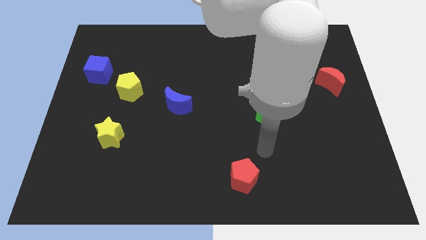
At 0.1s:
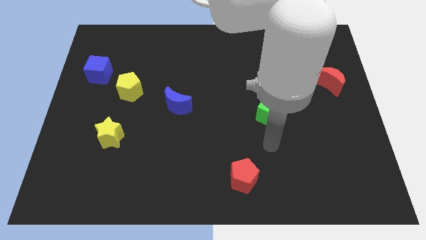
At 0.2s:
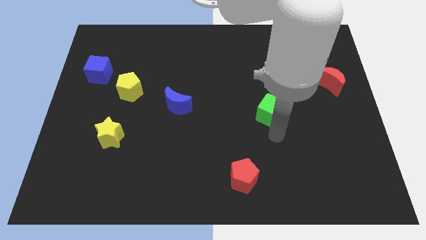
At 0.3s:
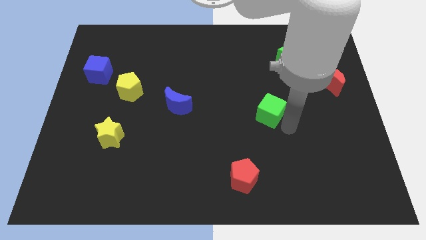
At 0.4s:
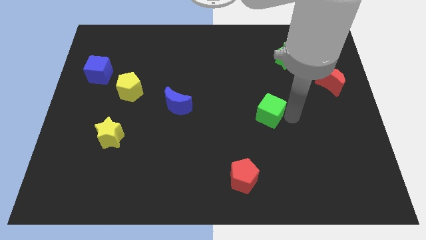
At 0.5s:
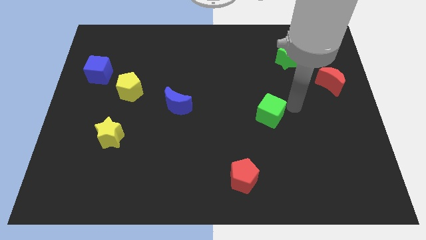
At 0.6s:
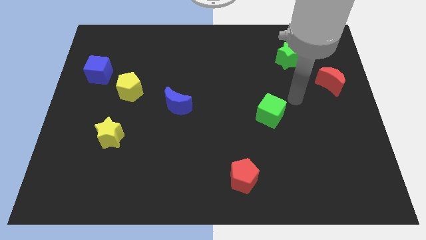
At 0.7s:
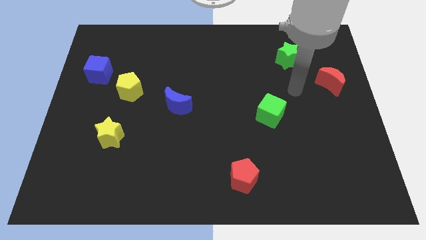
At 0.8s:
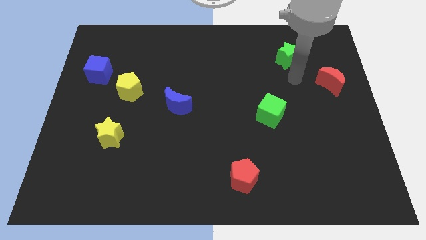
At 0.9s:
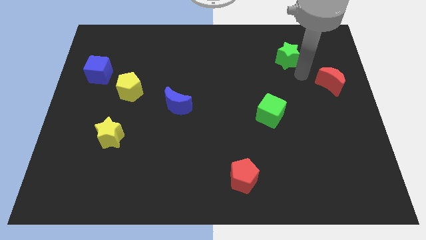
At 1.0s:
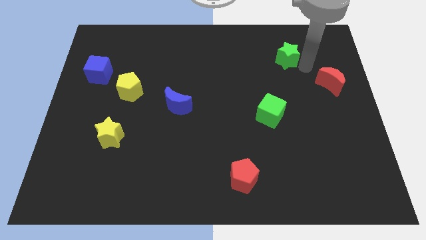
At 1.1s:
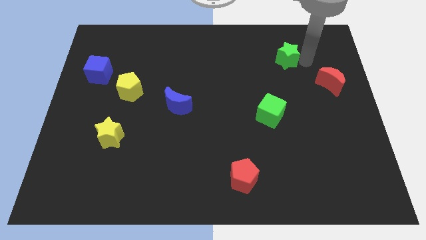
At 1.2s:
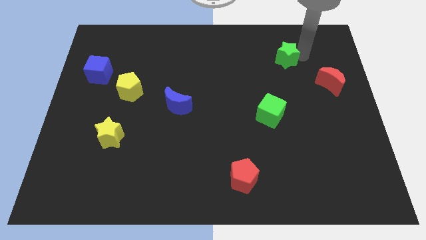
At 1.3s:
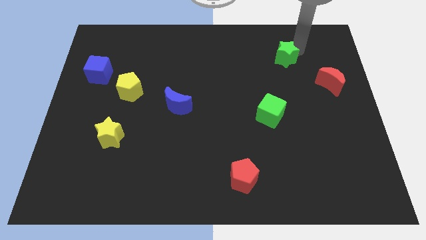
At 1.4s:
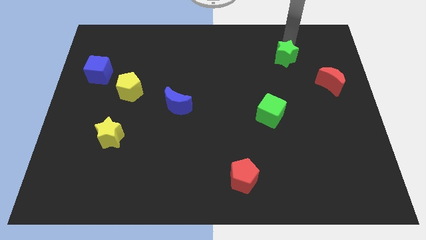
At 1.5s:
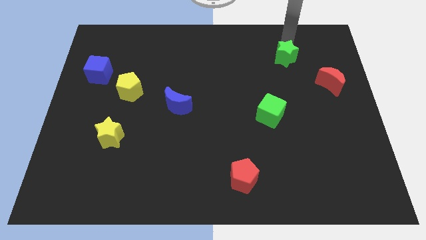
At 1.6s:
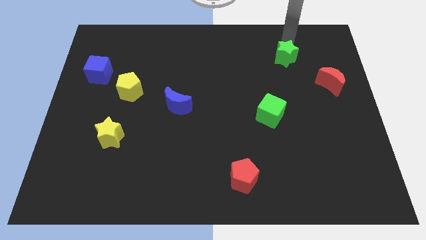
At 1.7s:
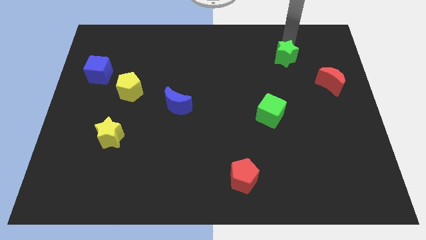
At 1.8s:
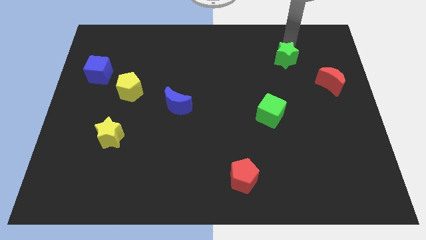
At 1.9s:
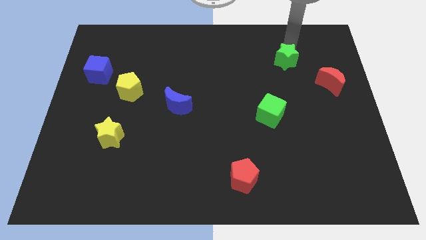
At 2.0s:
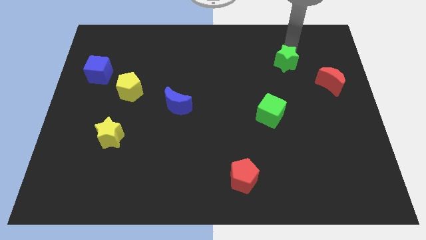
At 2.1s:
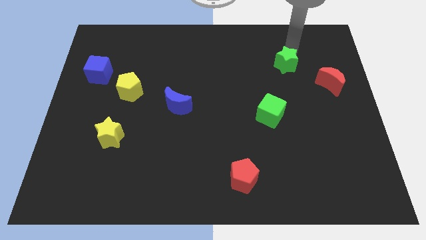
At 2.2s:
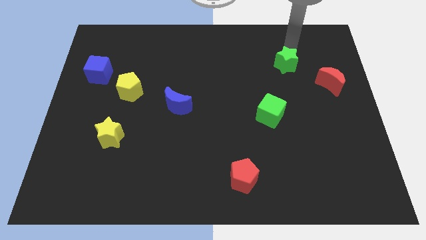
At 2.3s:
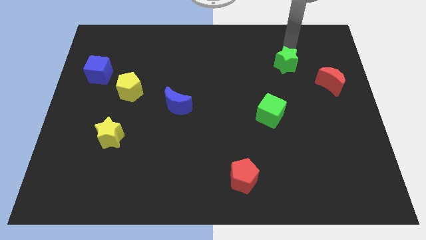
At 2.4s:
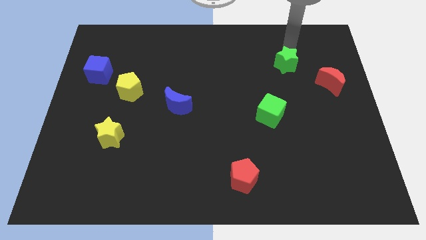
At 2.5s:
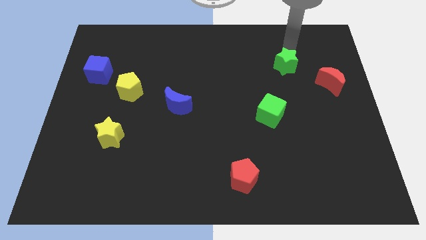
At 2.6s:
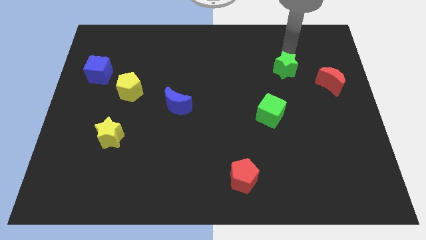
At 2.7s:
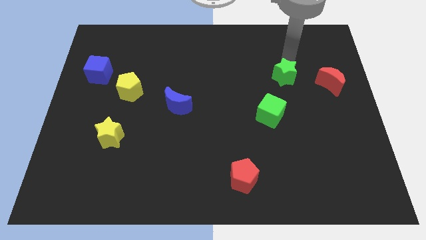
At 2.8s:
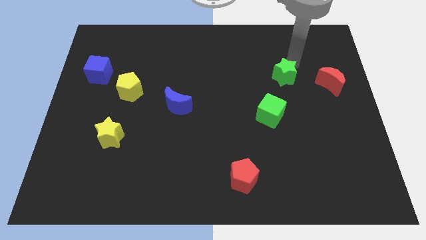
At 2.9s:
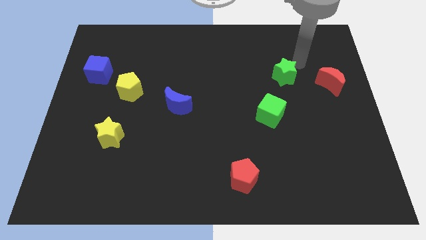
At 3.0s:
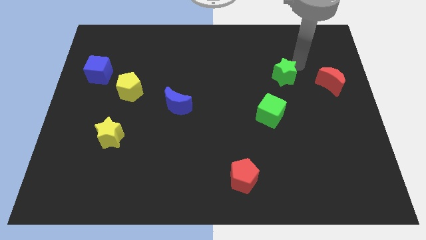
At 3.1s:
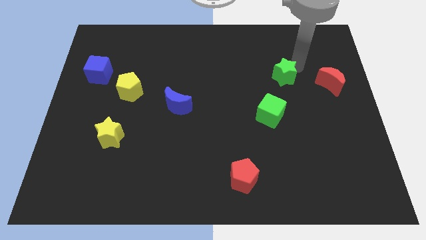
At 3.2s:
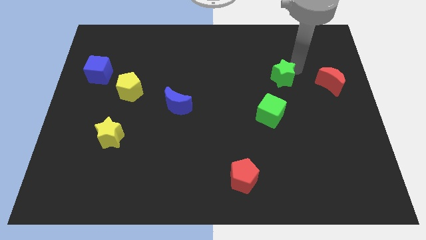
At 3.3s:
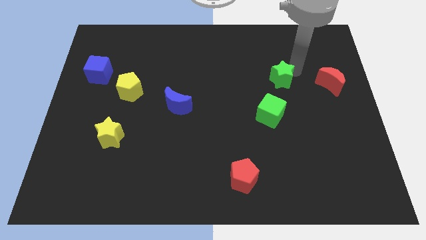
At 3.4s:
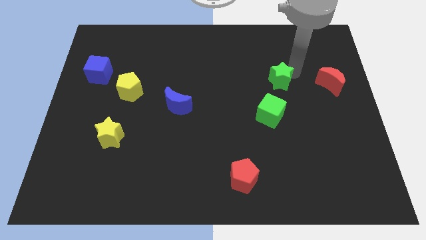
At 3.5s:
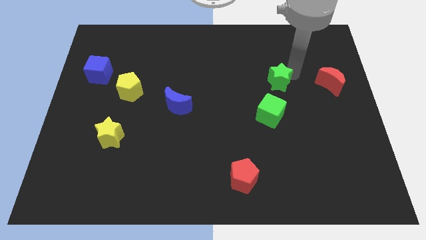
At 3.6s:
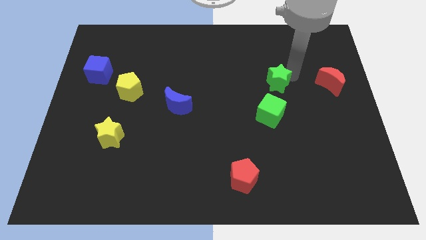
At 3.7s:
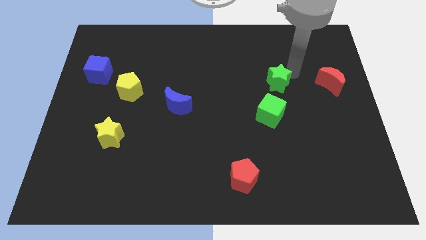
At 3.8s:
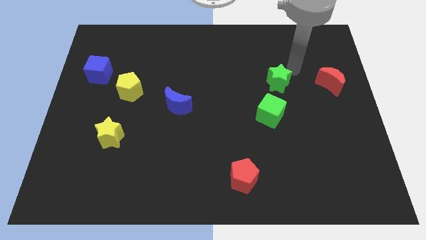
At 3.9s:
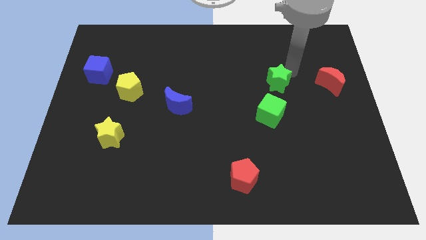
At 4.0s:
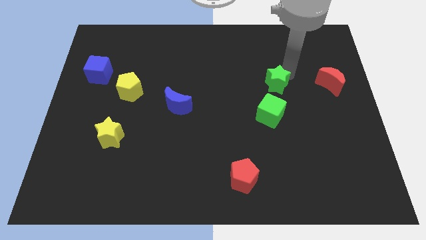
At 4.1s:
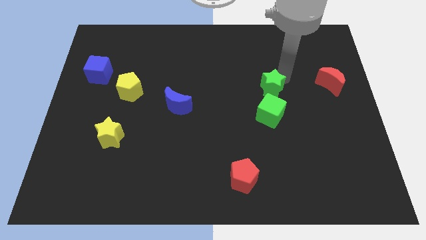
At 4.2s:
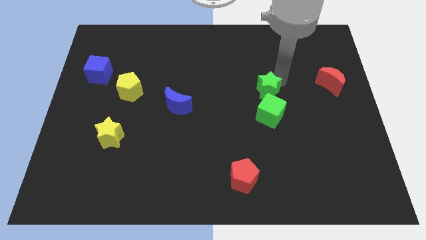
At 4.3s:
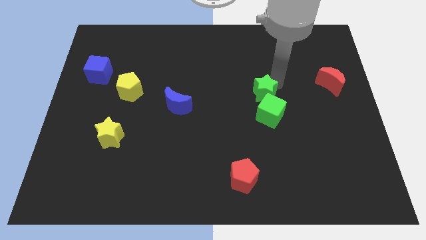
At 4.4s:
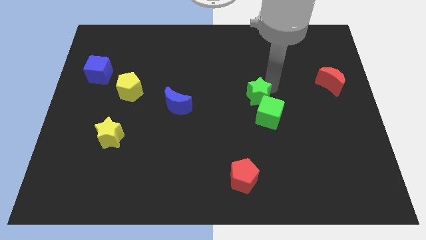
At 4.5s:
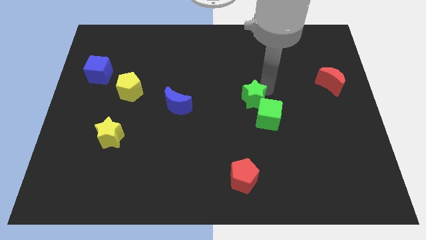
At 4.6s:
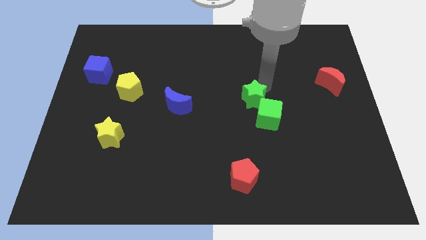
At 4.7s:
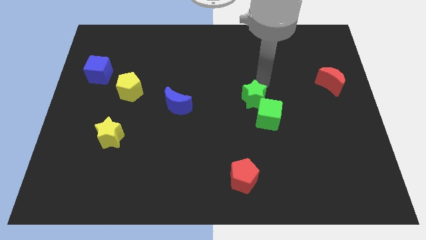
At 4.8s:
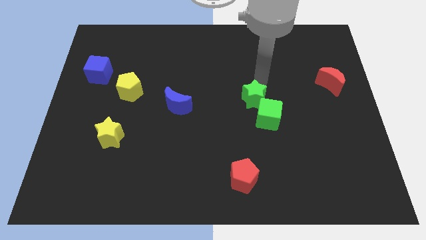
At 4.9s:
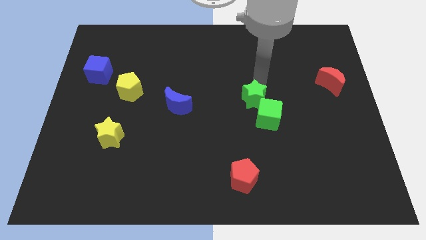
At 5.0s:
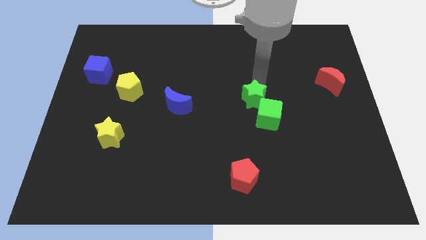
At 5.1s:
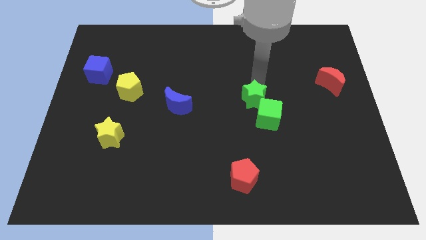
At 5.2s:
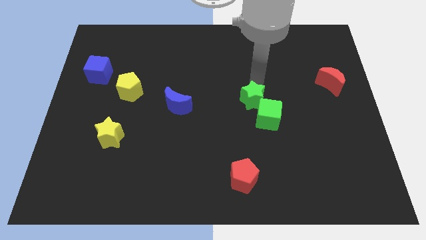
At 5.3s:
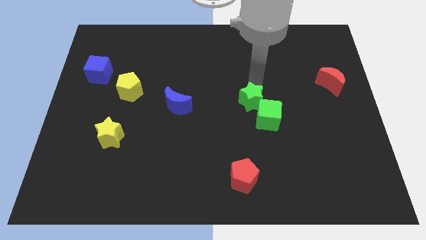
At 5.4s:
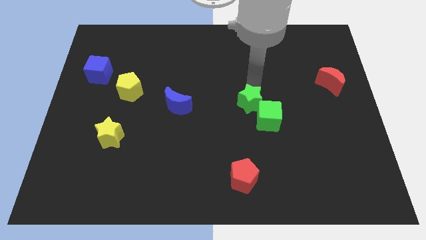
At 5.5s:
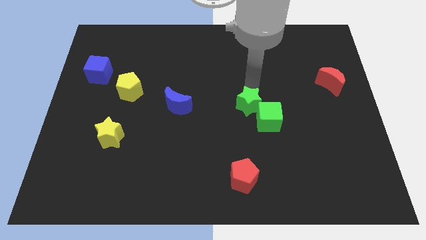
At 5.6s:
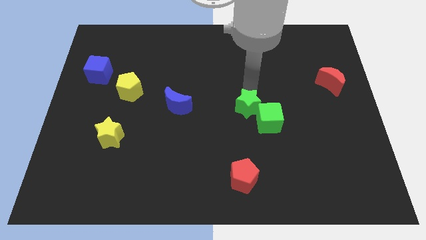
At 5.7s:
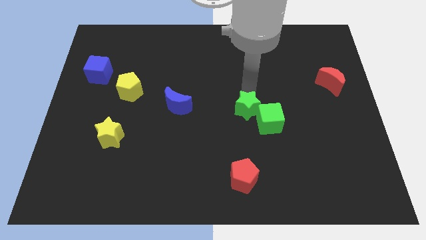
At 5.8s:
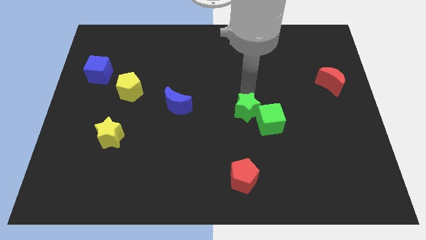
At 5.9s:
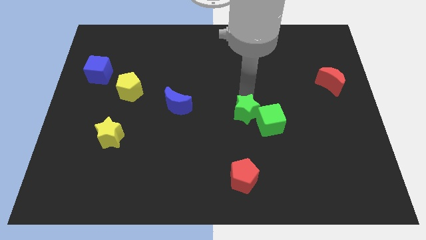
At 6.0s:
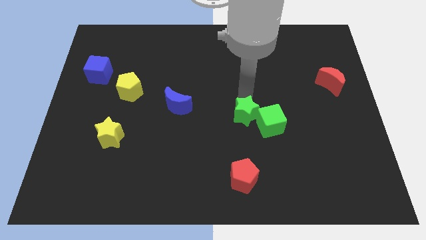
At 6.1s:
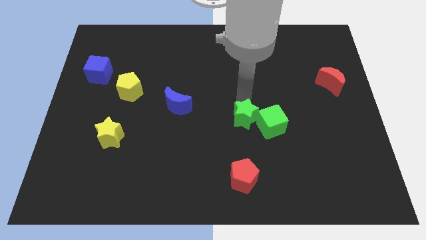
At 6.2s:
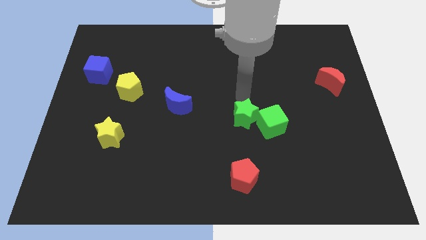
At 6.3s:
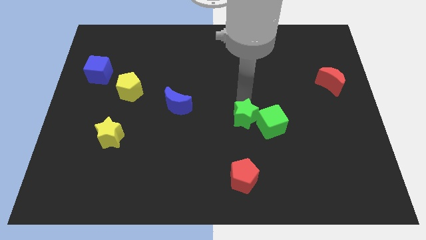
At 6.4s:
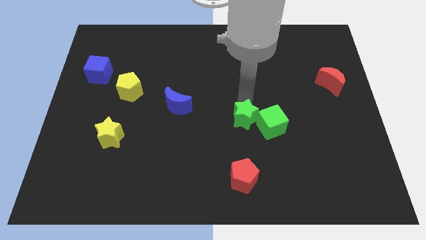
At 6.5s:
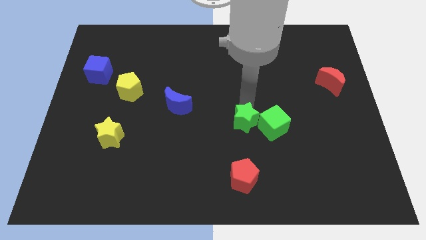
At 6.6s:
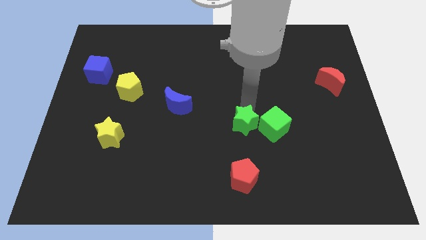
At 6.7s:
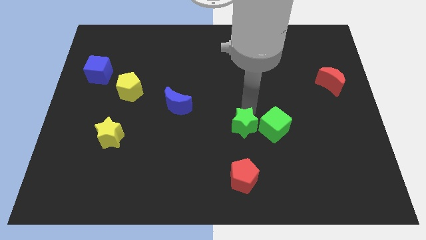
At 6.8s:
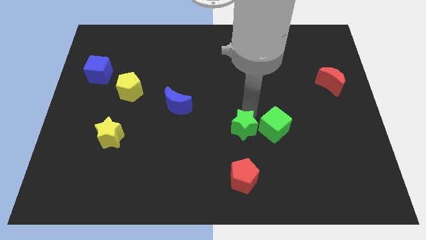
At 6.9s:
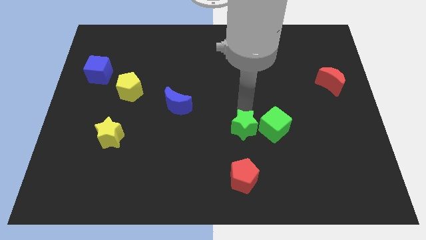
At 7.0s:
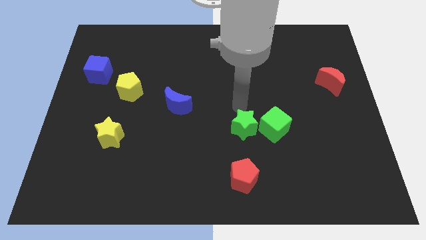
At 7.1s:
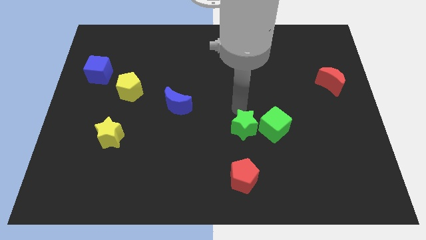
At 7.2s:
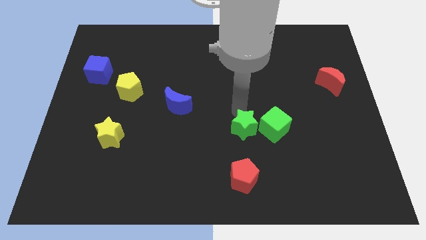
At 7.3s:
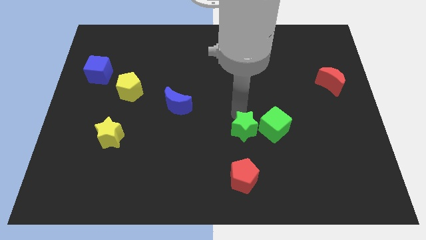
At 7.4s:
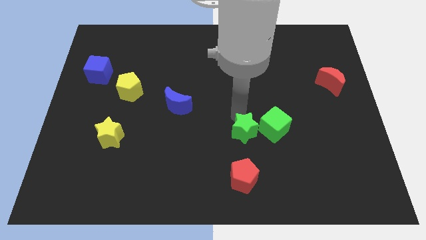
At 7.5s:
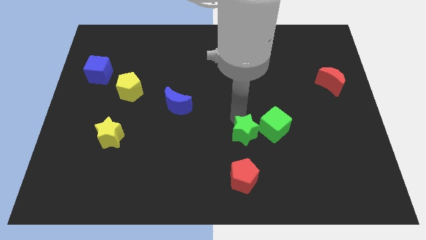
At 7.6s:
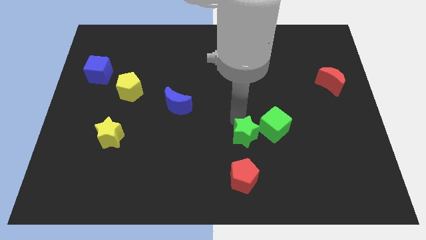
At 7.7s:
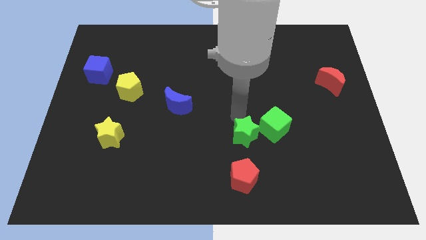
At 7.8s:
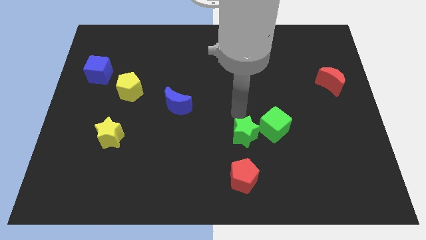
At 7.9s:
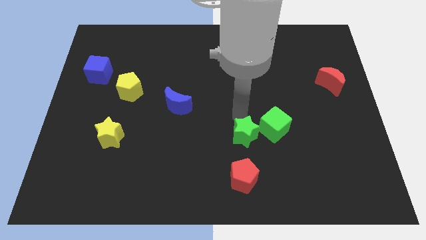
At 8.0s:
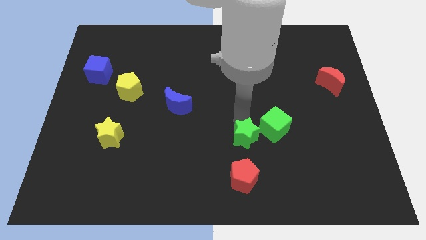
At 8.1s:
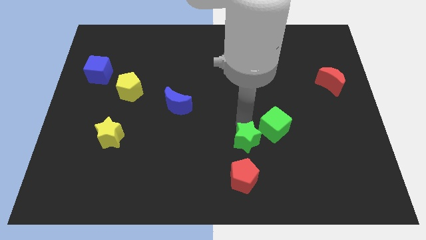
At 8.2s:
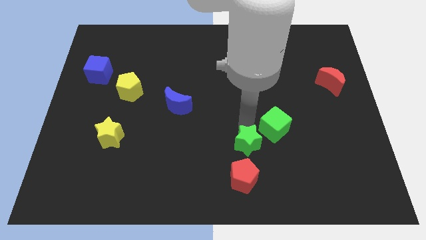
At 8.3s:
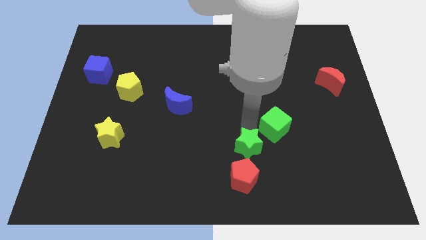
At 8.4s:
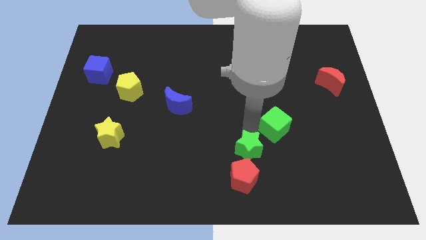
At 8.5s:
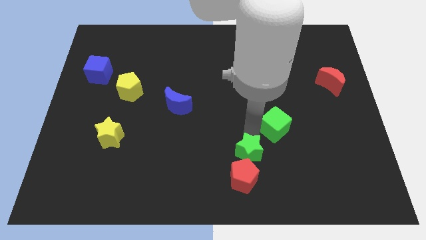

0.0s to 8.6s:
put the green star towards the red pentagon
